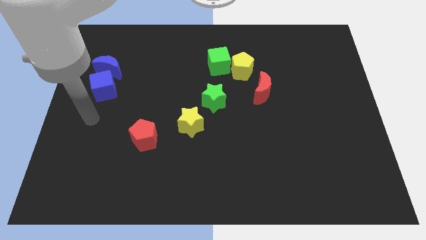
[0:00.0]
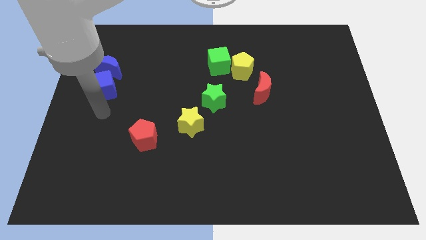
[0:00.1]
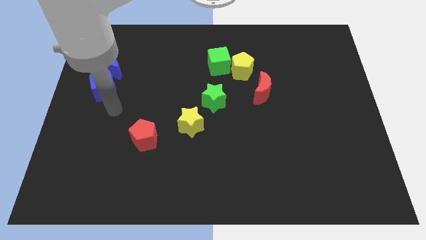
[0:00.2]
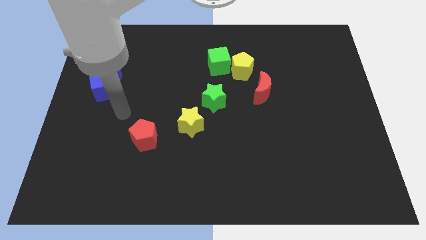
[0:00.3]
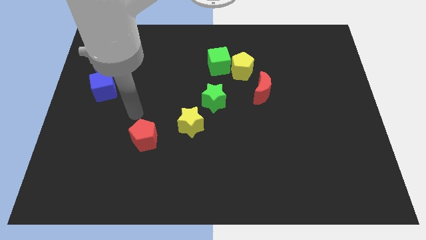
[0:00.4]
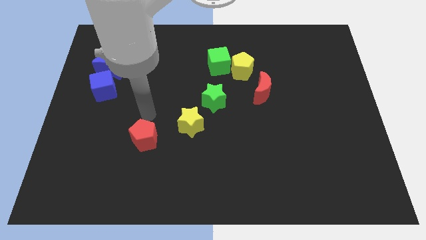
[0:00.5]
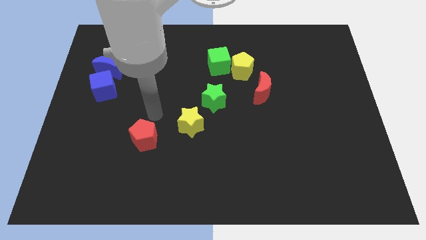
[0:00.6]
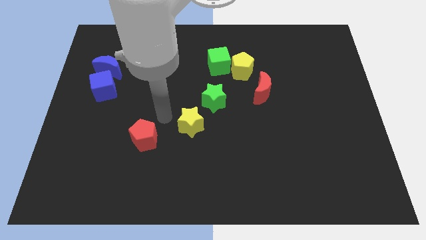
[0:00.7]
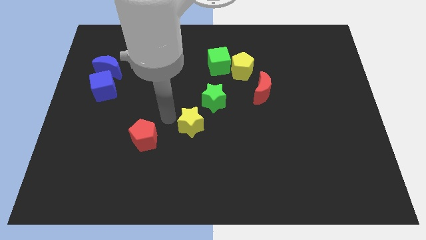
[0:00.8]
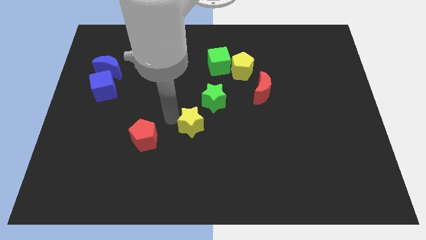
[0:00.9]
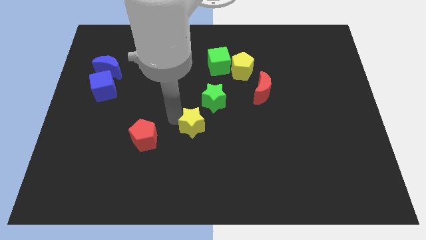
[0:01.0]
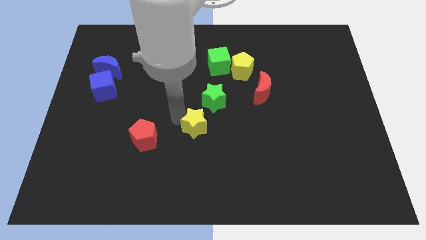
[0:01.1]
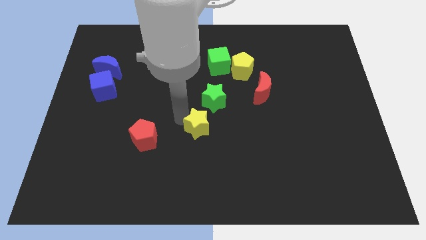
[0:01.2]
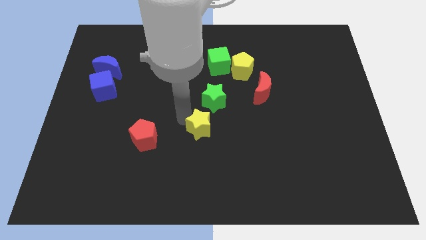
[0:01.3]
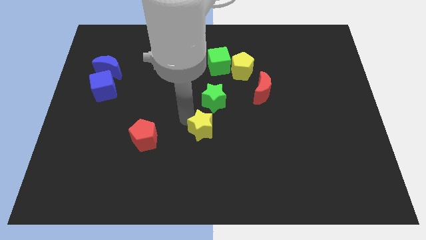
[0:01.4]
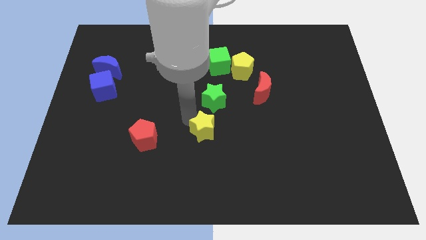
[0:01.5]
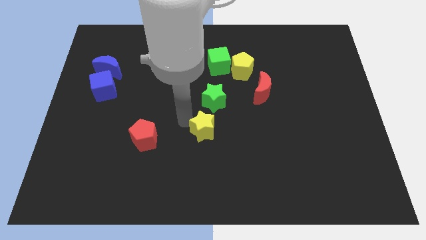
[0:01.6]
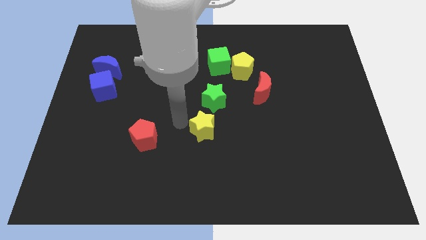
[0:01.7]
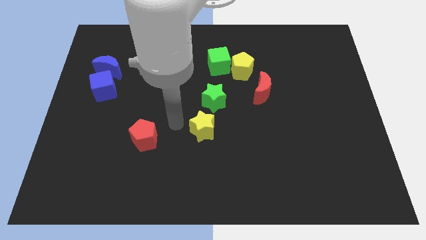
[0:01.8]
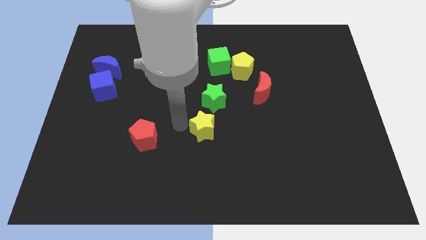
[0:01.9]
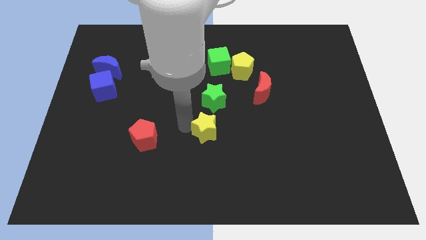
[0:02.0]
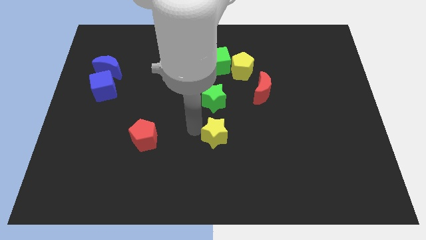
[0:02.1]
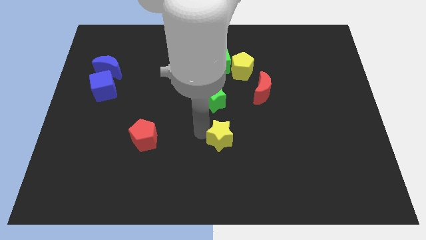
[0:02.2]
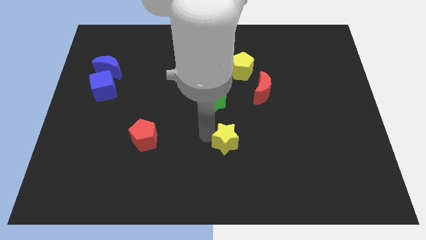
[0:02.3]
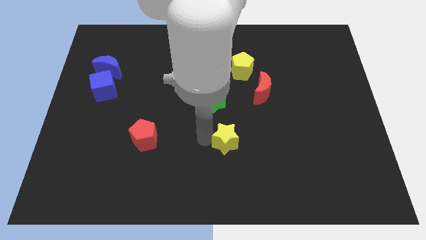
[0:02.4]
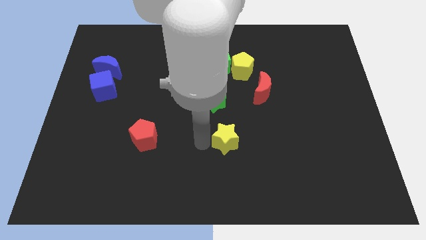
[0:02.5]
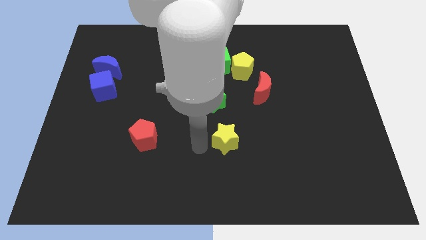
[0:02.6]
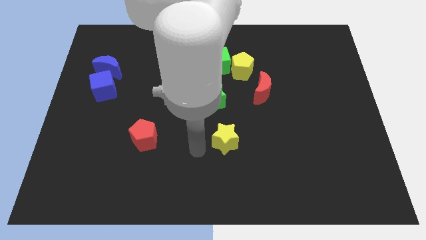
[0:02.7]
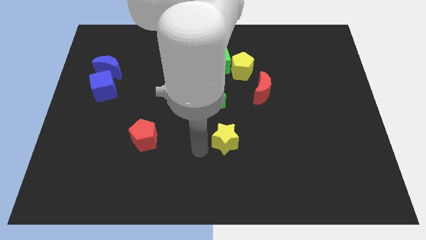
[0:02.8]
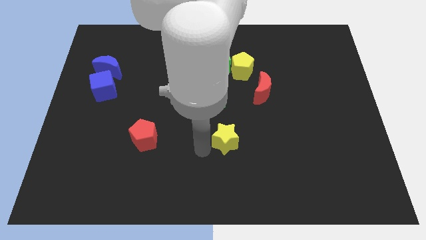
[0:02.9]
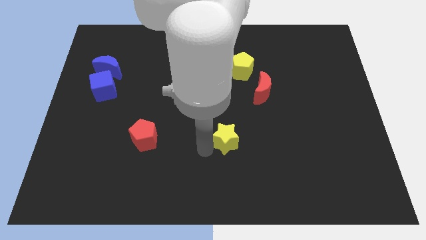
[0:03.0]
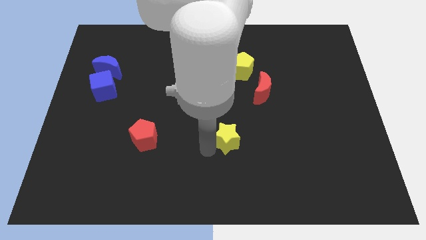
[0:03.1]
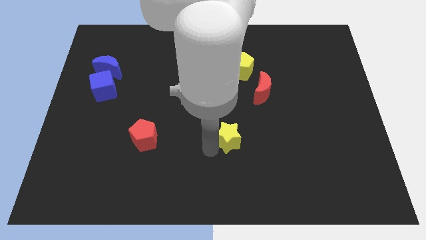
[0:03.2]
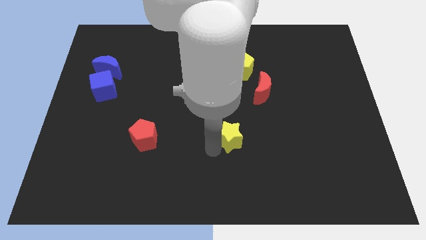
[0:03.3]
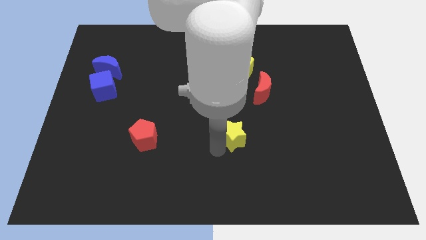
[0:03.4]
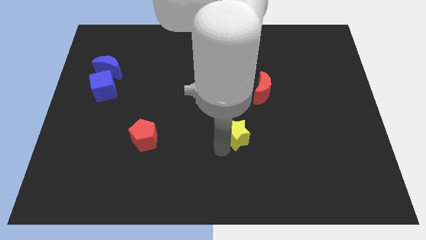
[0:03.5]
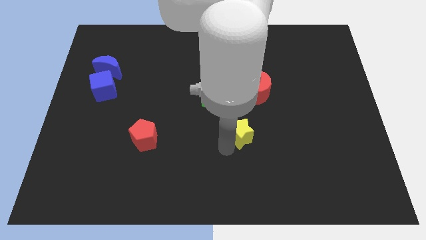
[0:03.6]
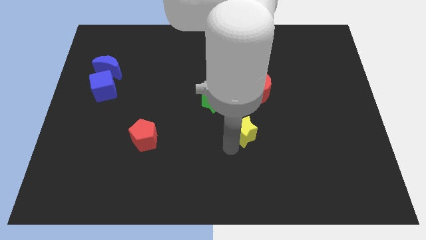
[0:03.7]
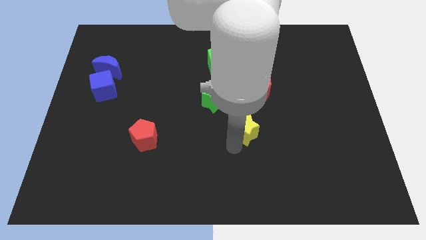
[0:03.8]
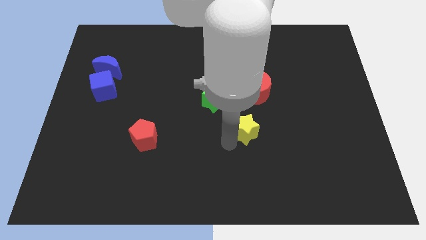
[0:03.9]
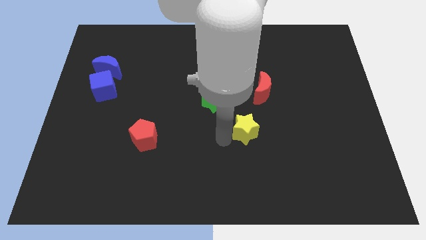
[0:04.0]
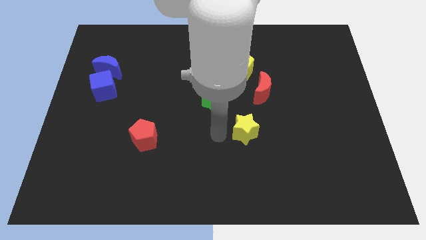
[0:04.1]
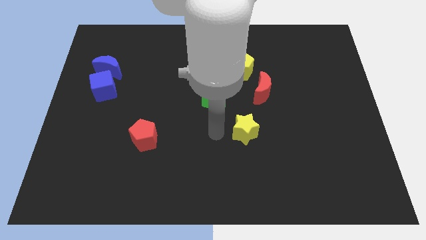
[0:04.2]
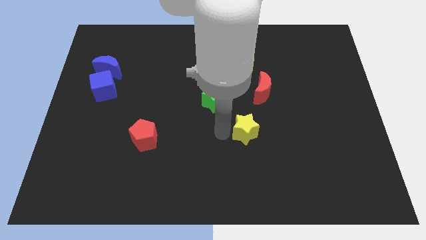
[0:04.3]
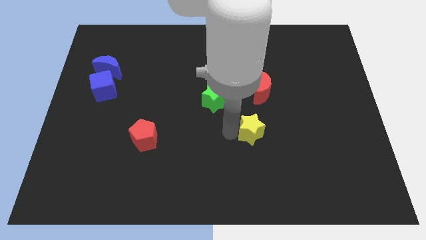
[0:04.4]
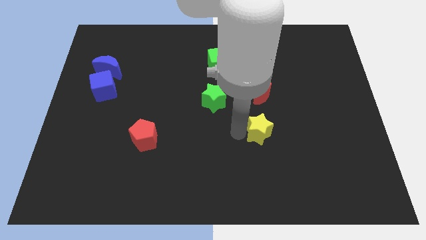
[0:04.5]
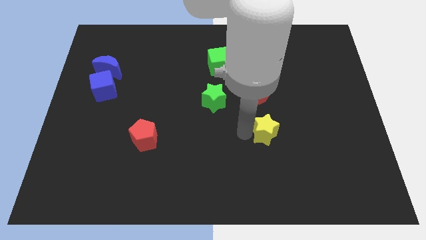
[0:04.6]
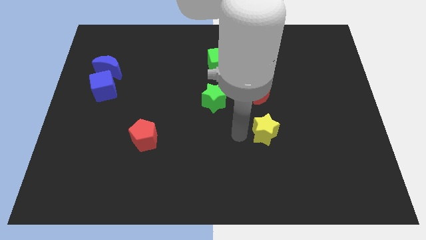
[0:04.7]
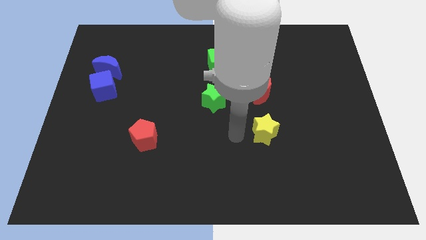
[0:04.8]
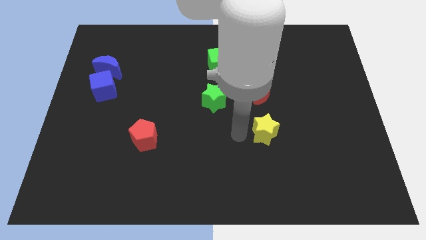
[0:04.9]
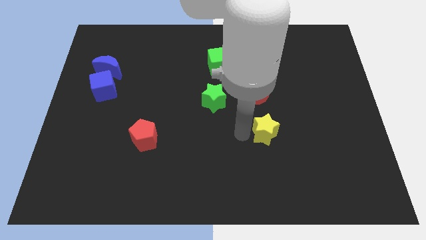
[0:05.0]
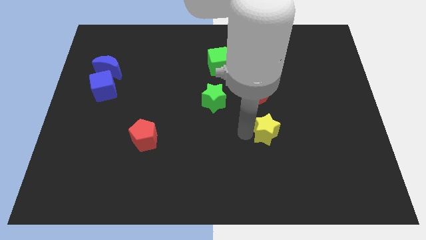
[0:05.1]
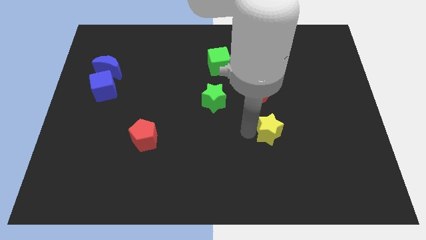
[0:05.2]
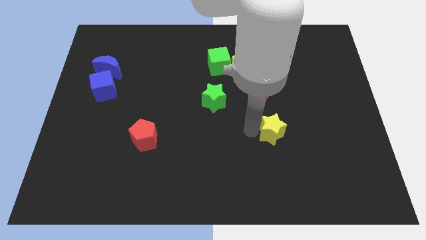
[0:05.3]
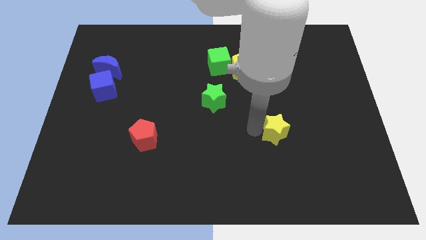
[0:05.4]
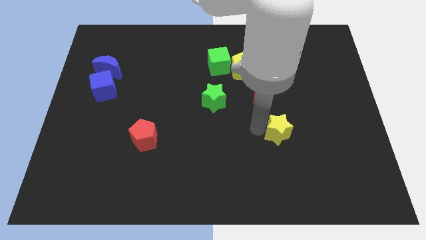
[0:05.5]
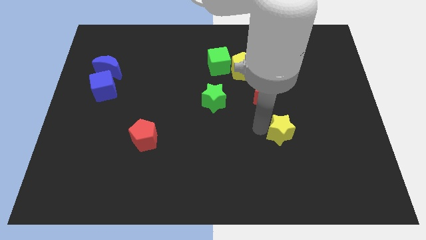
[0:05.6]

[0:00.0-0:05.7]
push the yellow star right

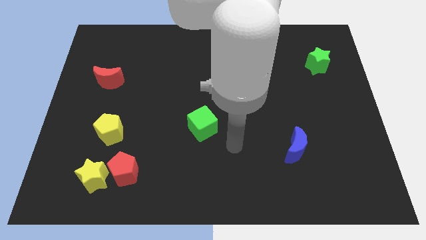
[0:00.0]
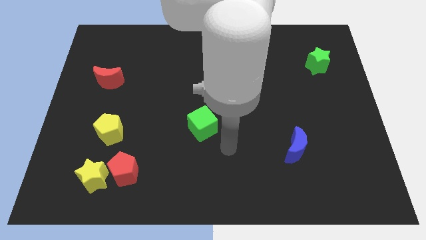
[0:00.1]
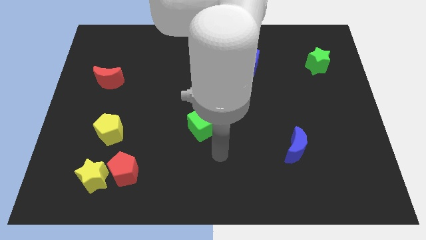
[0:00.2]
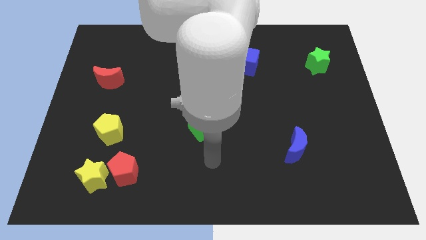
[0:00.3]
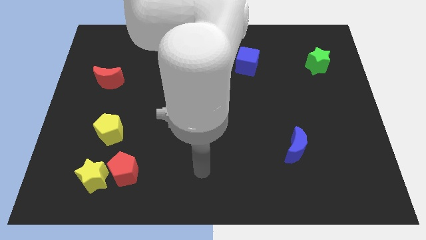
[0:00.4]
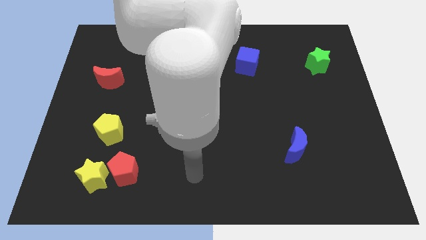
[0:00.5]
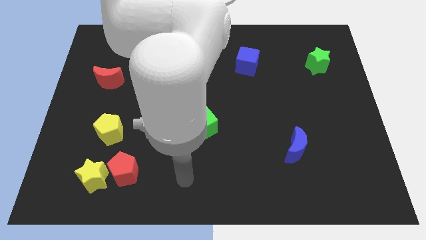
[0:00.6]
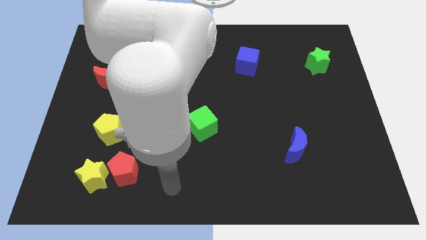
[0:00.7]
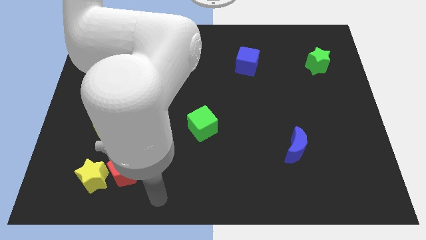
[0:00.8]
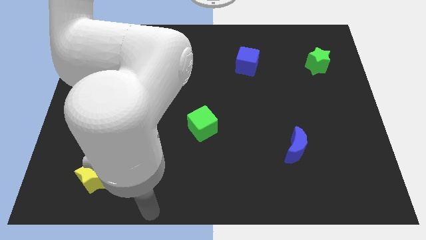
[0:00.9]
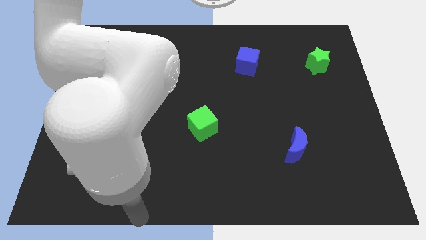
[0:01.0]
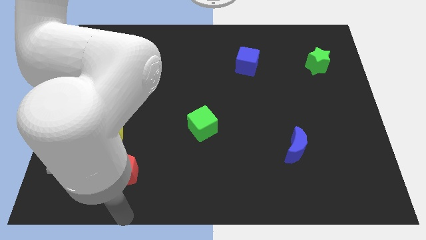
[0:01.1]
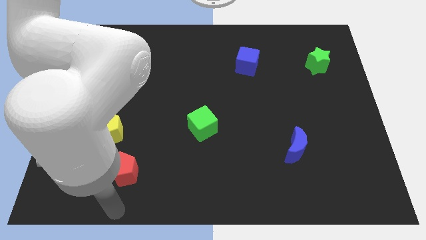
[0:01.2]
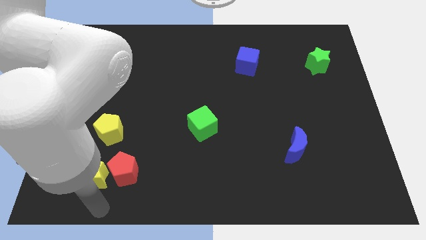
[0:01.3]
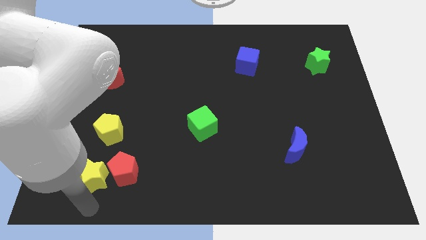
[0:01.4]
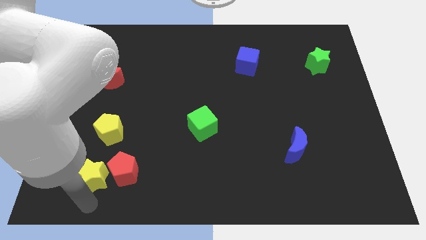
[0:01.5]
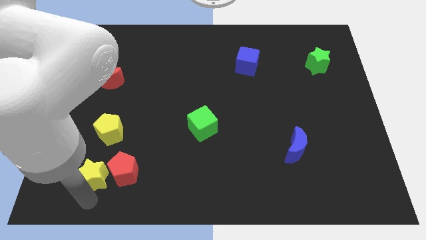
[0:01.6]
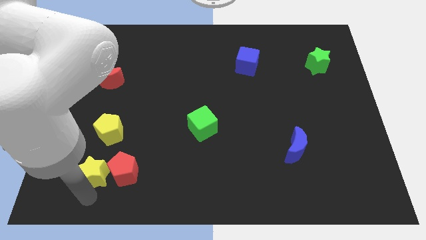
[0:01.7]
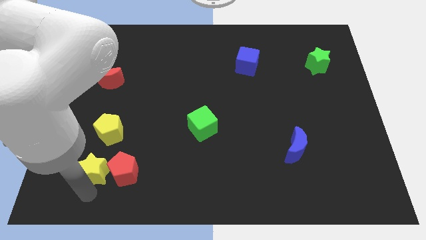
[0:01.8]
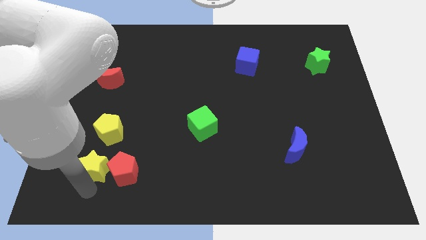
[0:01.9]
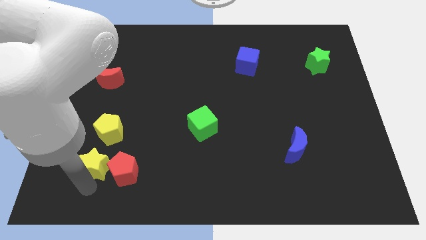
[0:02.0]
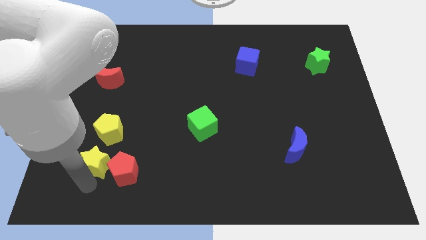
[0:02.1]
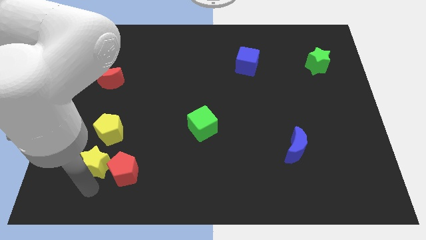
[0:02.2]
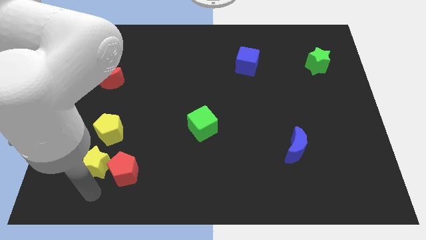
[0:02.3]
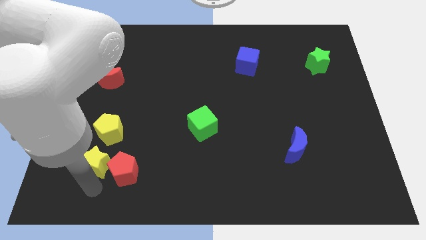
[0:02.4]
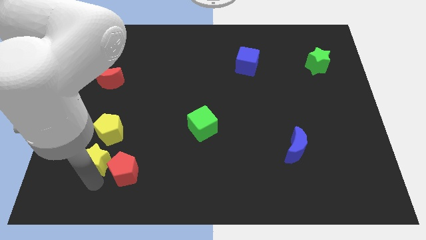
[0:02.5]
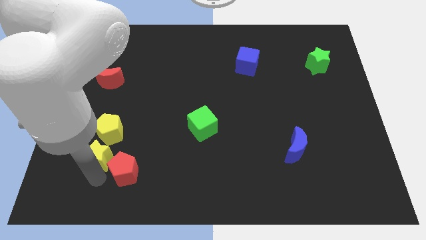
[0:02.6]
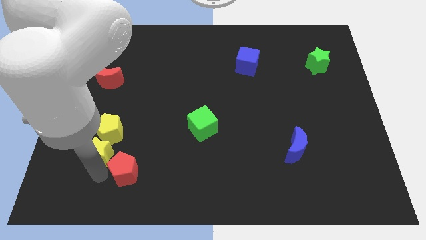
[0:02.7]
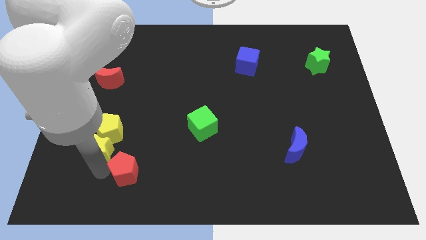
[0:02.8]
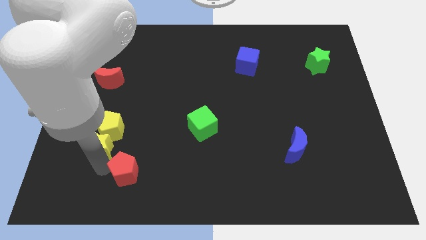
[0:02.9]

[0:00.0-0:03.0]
move the yellow star upwards somewhat
